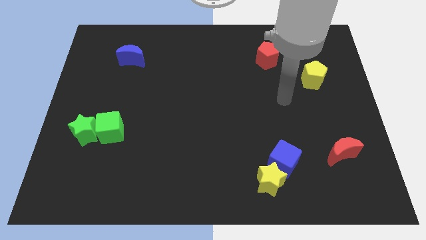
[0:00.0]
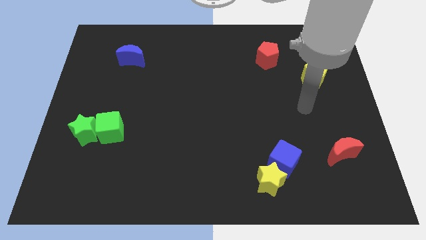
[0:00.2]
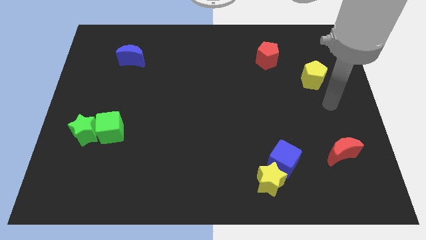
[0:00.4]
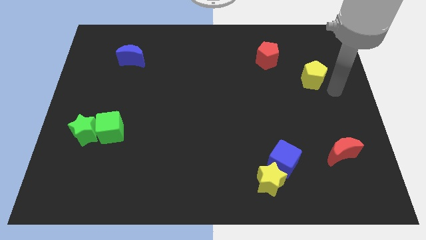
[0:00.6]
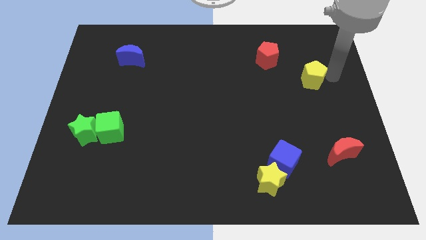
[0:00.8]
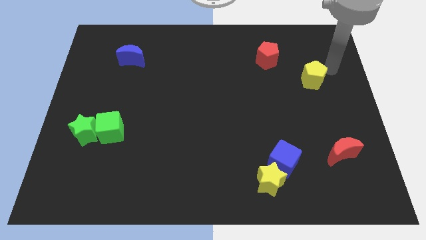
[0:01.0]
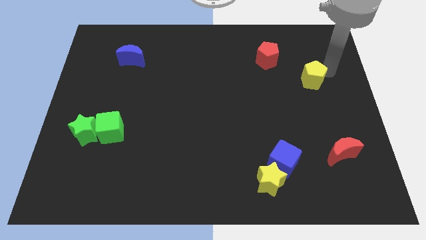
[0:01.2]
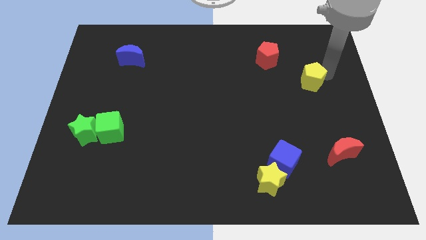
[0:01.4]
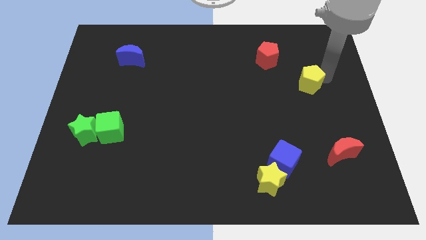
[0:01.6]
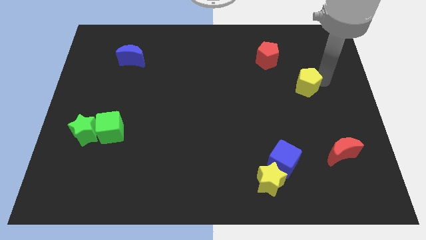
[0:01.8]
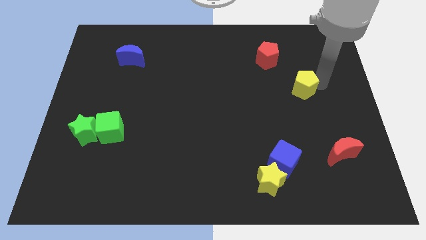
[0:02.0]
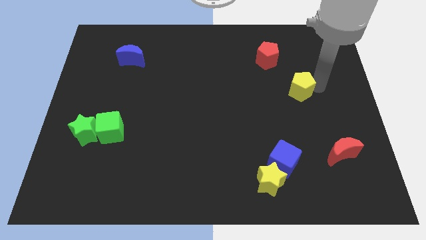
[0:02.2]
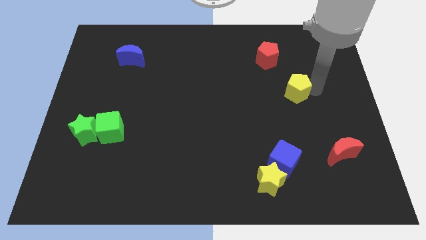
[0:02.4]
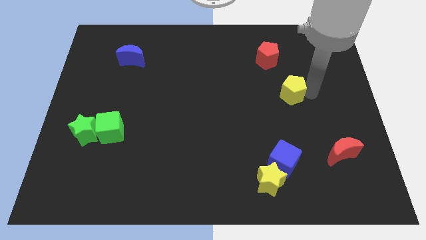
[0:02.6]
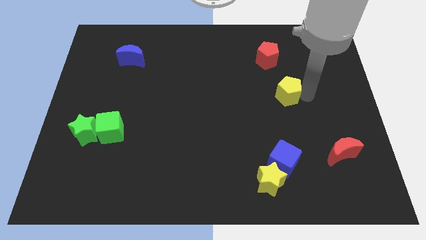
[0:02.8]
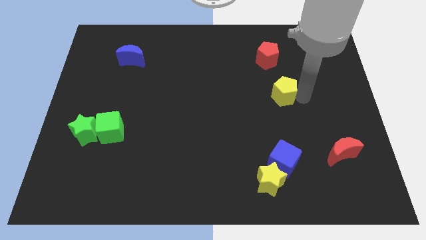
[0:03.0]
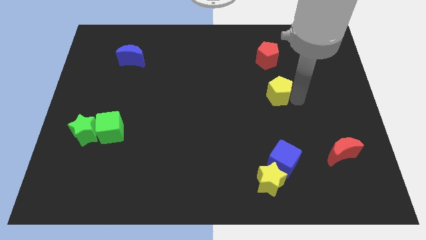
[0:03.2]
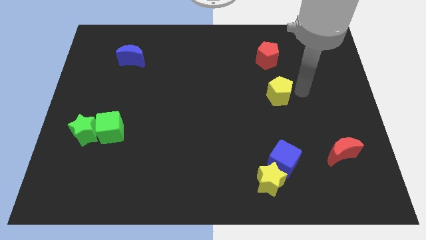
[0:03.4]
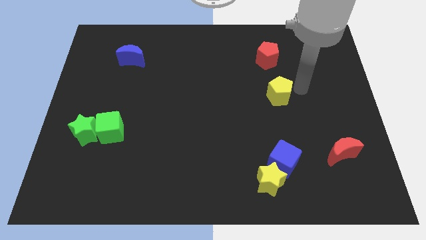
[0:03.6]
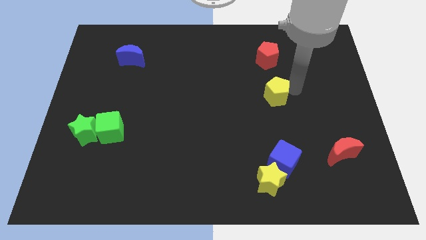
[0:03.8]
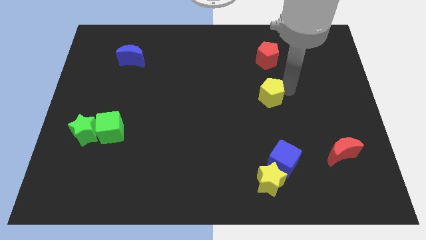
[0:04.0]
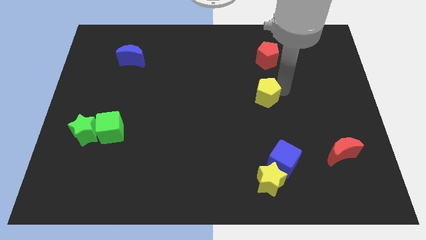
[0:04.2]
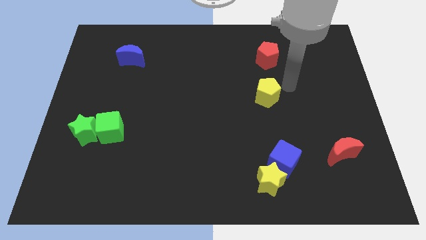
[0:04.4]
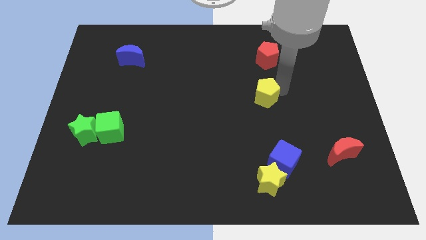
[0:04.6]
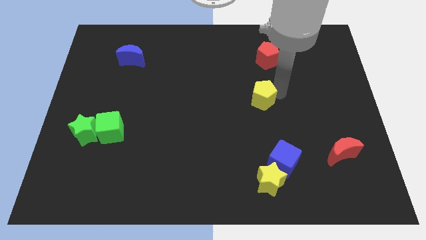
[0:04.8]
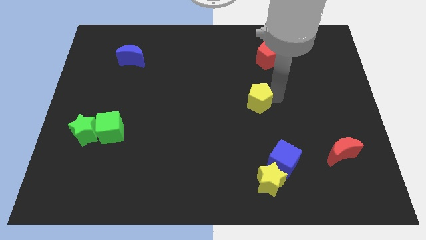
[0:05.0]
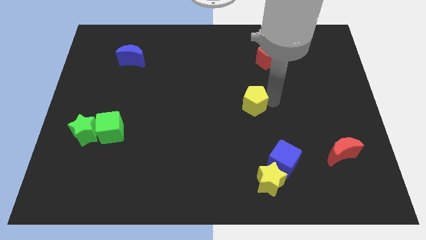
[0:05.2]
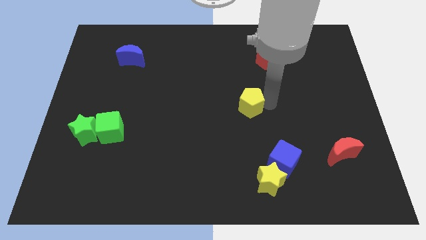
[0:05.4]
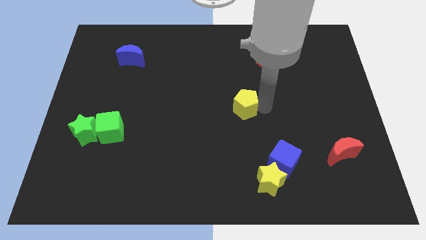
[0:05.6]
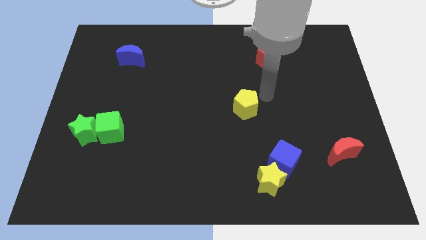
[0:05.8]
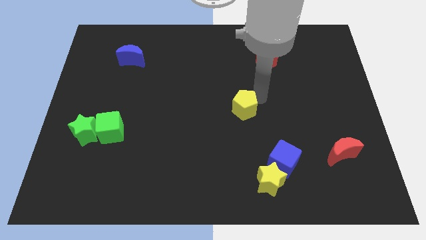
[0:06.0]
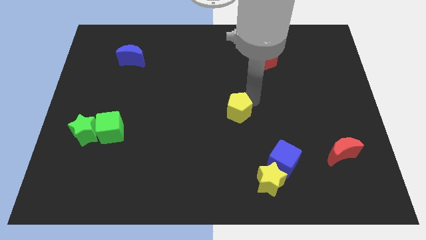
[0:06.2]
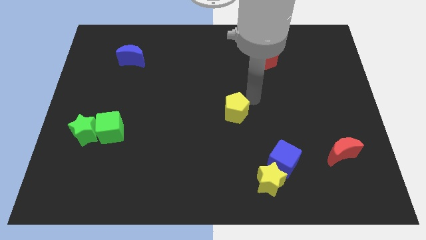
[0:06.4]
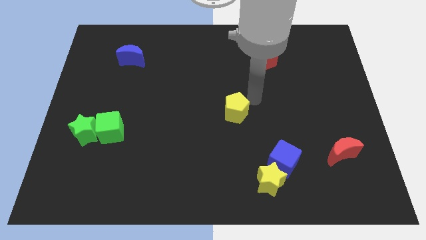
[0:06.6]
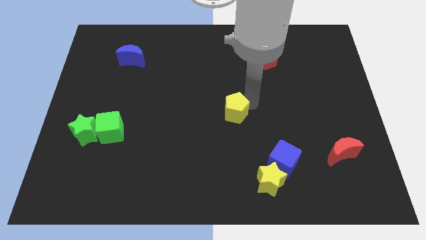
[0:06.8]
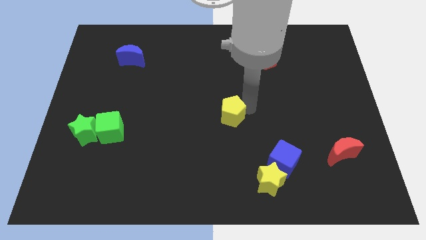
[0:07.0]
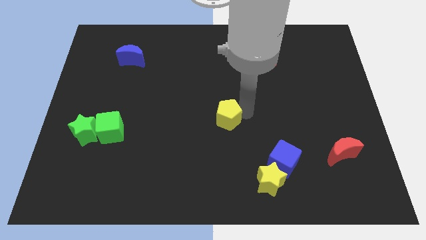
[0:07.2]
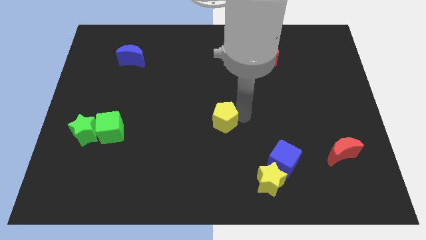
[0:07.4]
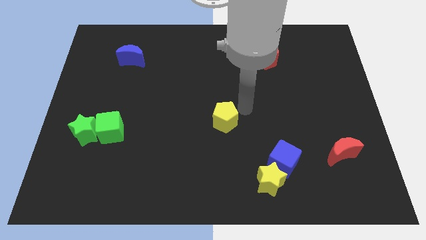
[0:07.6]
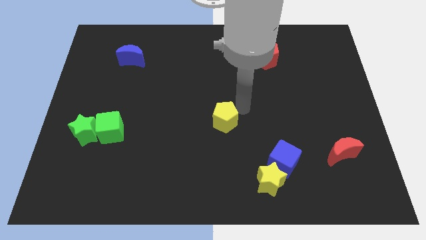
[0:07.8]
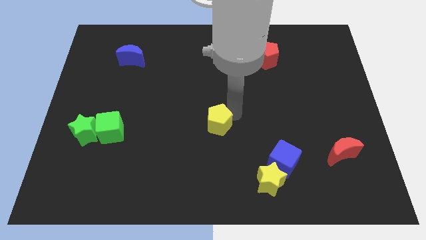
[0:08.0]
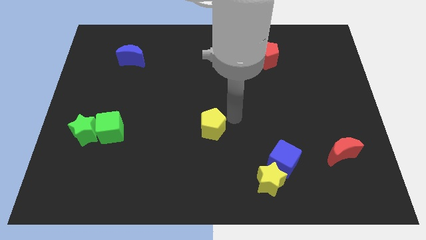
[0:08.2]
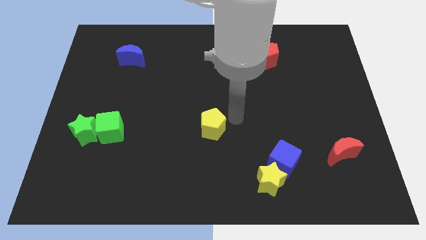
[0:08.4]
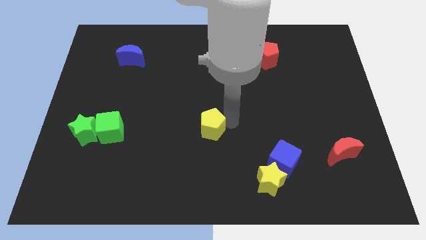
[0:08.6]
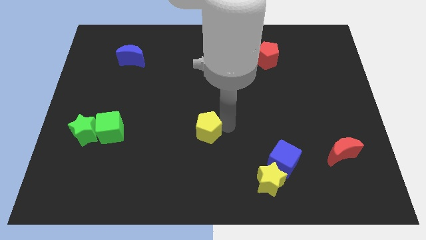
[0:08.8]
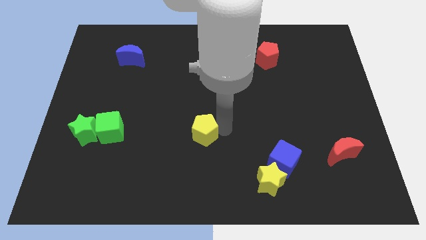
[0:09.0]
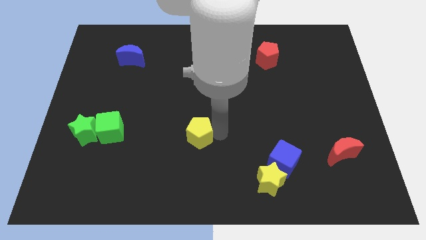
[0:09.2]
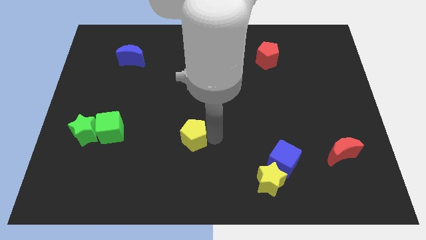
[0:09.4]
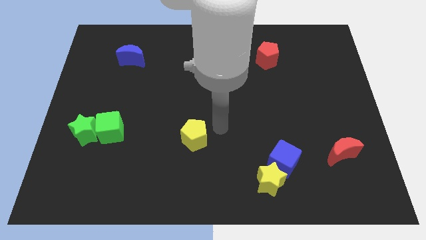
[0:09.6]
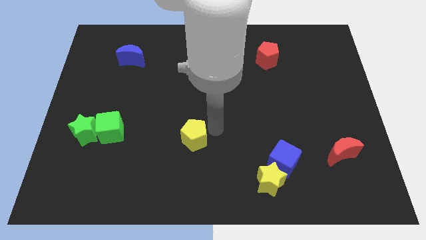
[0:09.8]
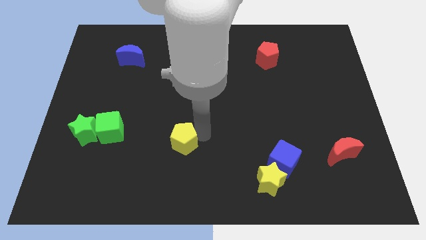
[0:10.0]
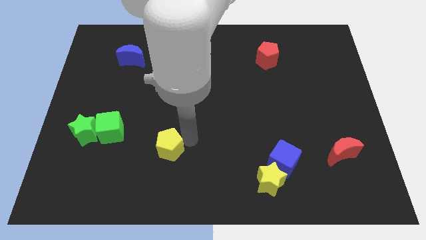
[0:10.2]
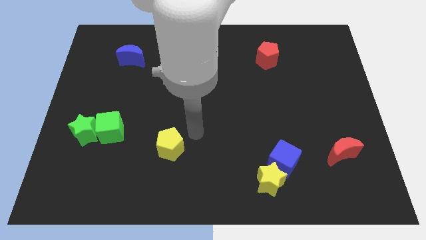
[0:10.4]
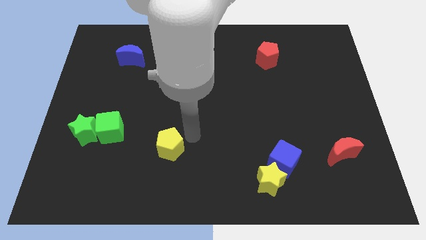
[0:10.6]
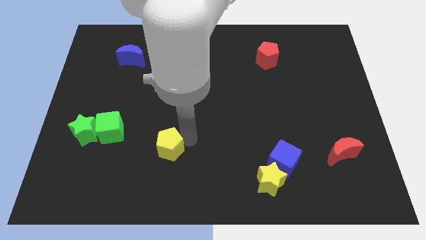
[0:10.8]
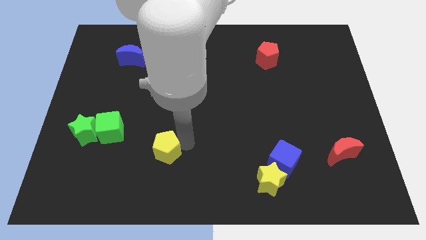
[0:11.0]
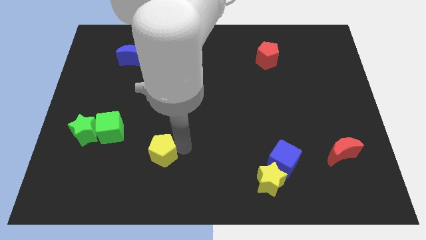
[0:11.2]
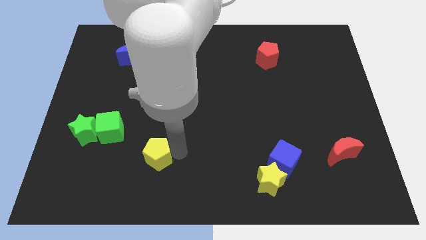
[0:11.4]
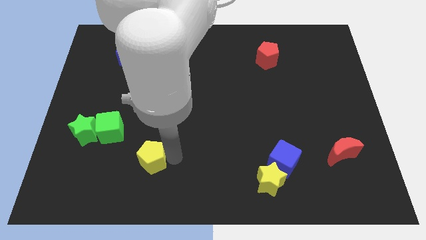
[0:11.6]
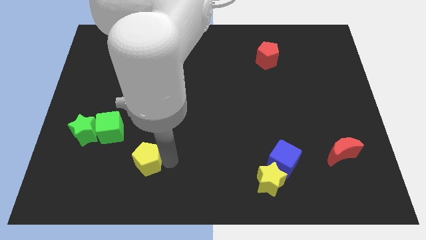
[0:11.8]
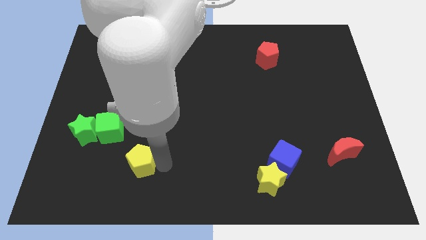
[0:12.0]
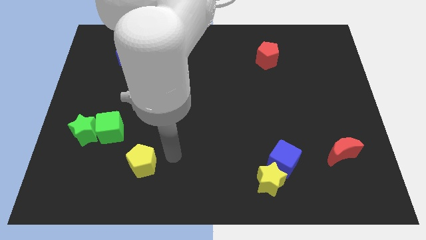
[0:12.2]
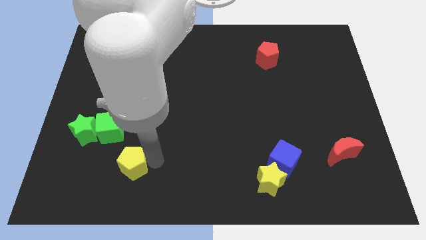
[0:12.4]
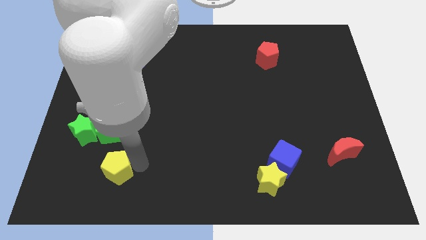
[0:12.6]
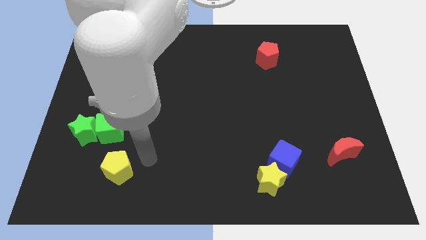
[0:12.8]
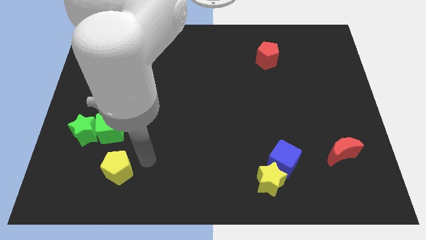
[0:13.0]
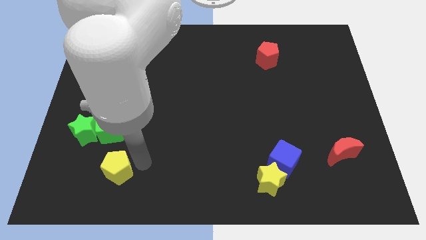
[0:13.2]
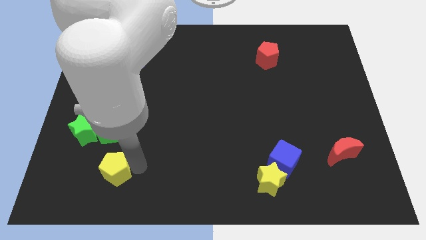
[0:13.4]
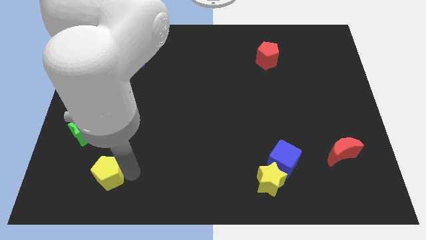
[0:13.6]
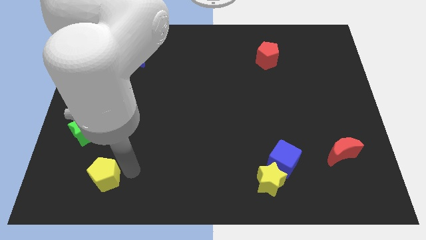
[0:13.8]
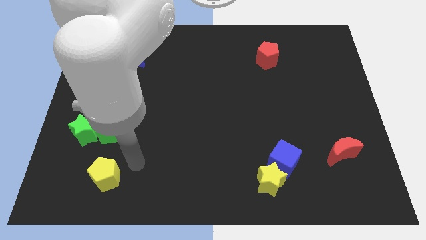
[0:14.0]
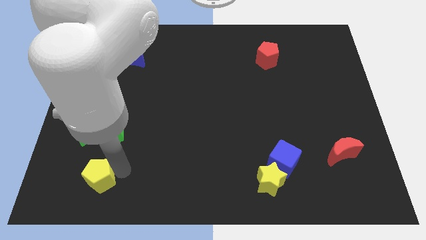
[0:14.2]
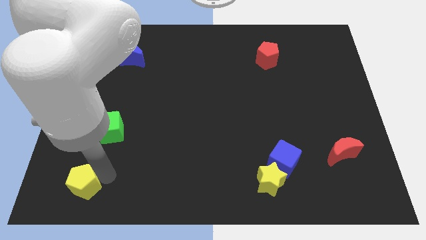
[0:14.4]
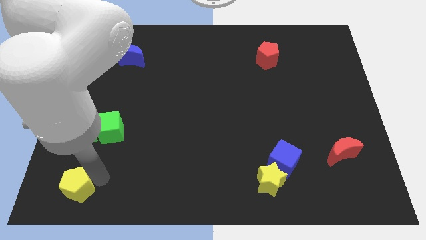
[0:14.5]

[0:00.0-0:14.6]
move the yellow pentagon to the bottom left
